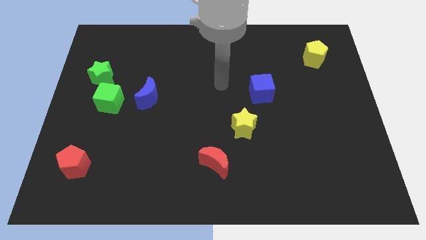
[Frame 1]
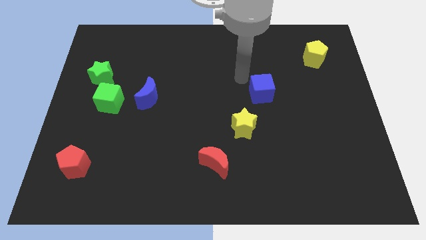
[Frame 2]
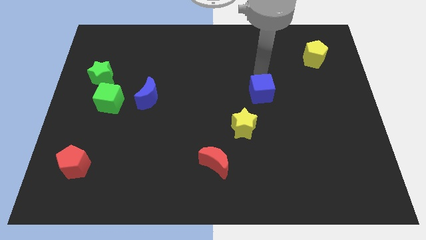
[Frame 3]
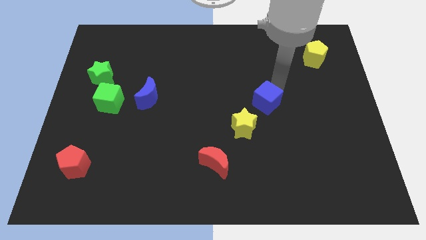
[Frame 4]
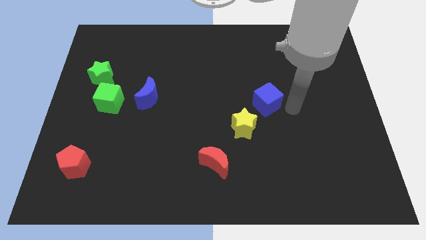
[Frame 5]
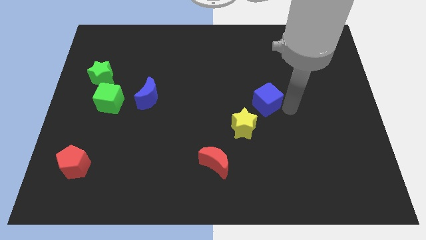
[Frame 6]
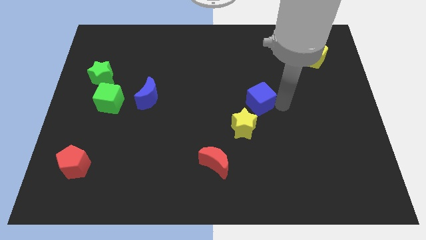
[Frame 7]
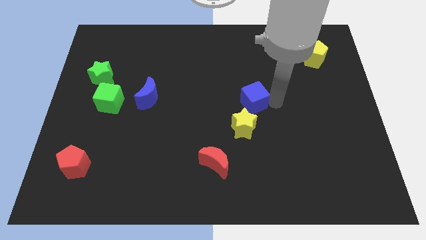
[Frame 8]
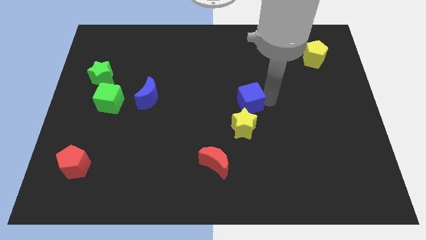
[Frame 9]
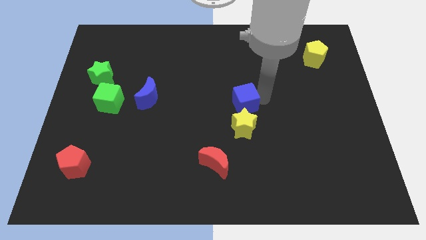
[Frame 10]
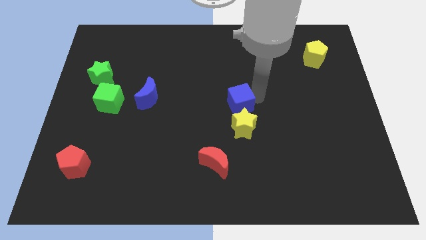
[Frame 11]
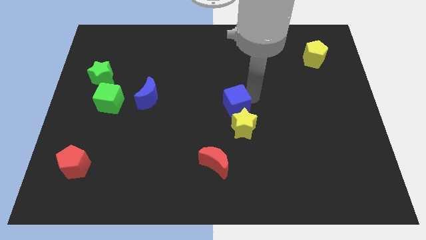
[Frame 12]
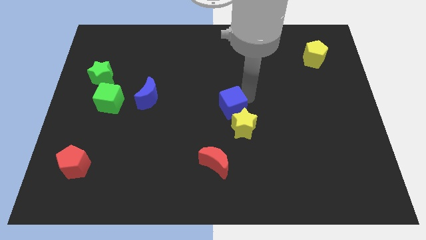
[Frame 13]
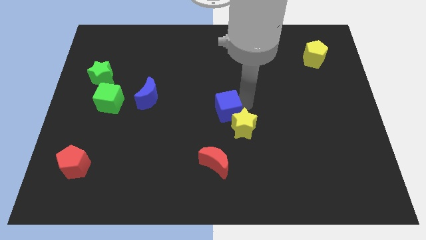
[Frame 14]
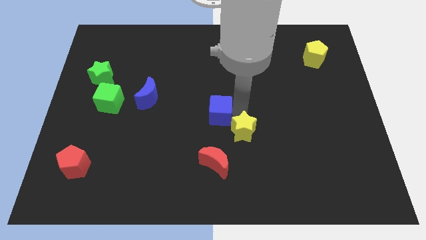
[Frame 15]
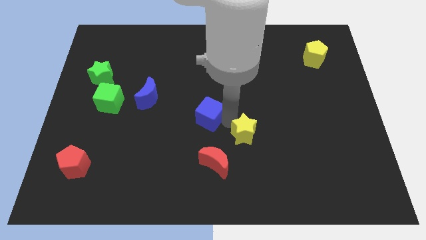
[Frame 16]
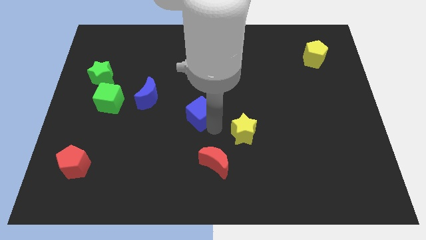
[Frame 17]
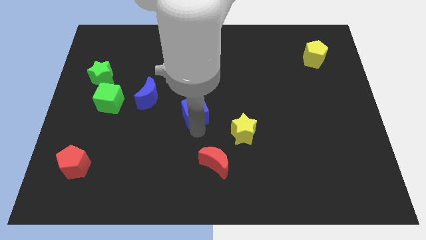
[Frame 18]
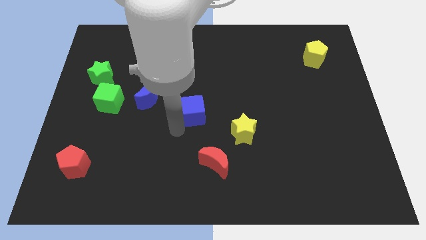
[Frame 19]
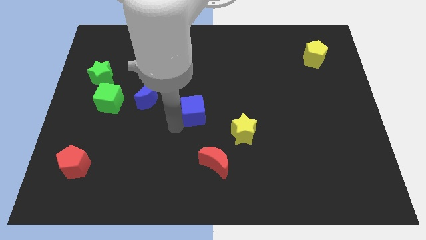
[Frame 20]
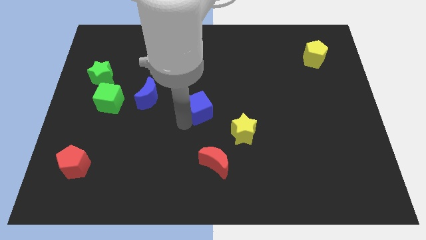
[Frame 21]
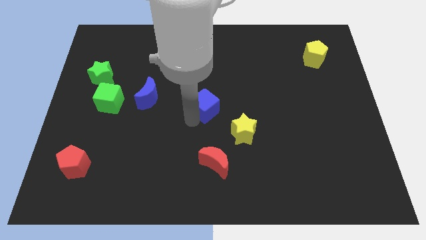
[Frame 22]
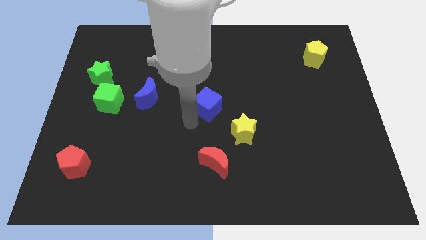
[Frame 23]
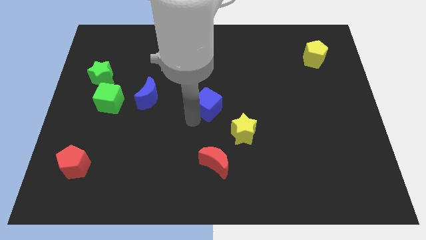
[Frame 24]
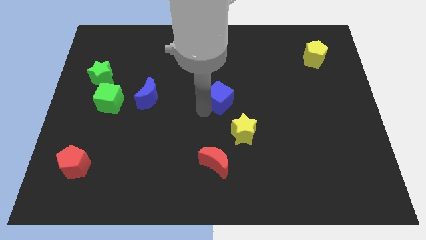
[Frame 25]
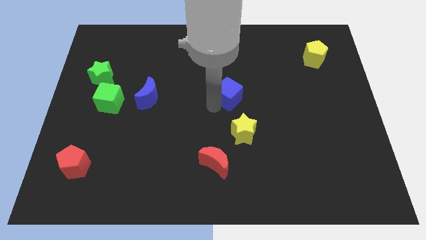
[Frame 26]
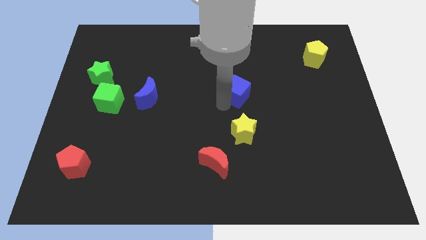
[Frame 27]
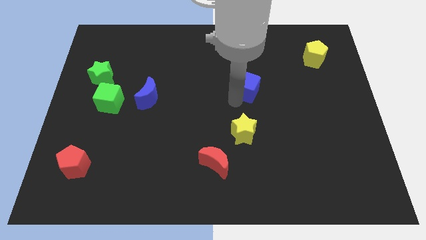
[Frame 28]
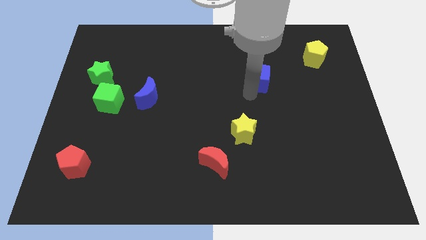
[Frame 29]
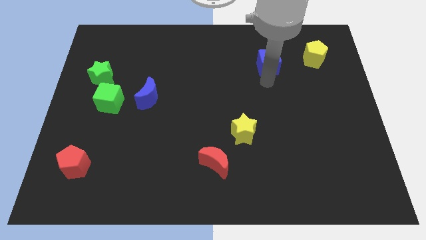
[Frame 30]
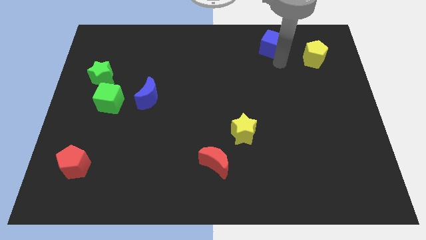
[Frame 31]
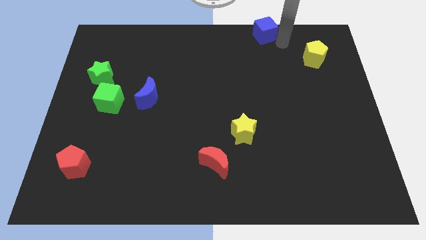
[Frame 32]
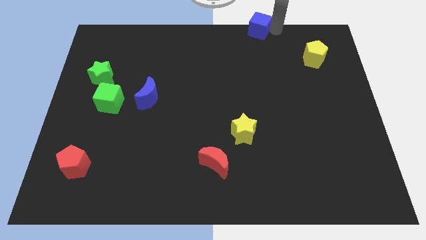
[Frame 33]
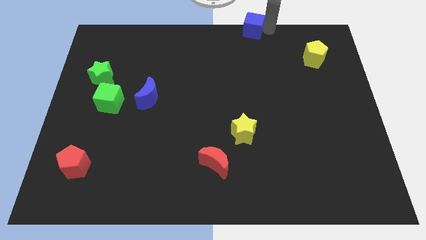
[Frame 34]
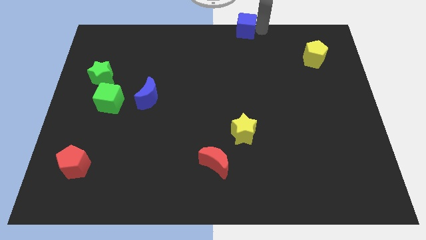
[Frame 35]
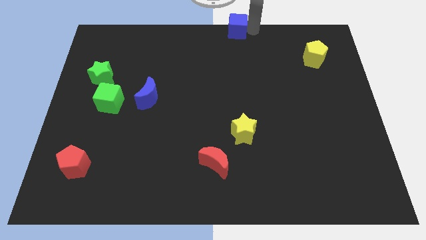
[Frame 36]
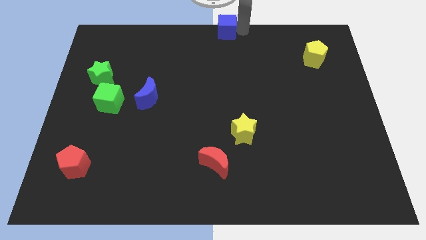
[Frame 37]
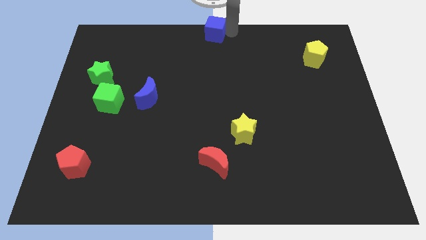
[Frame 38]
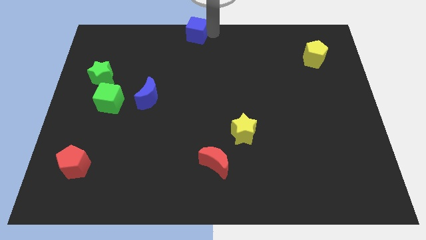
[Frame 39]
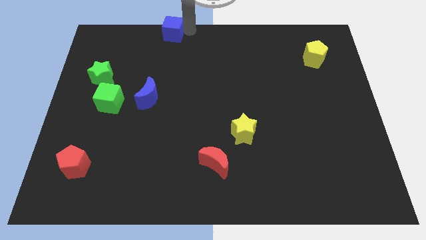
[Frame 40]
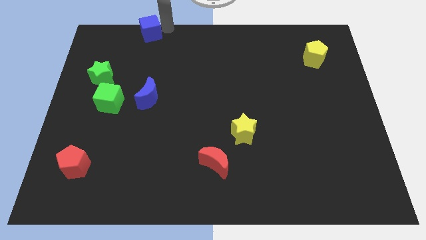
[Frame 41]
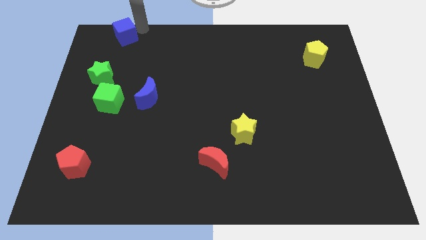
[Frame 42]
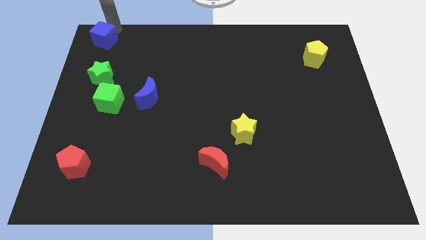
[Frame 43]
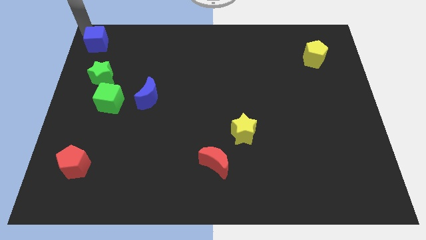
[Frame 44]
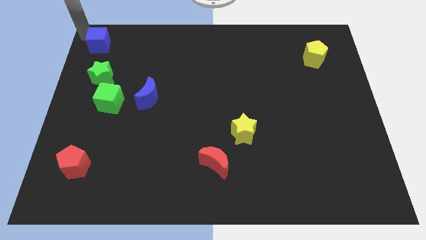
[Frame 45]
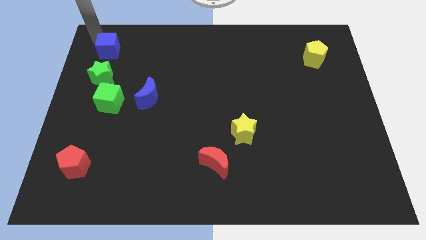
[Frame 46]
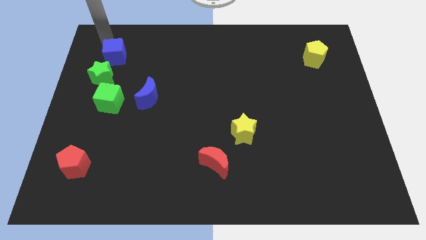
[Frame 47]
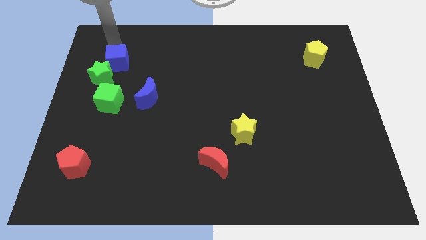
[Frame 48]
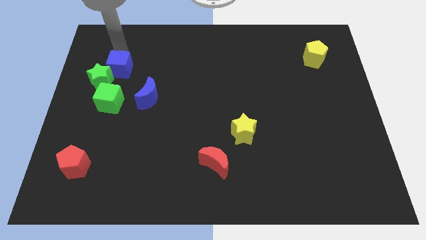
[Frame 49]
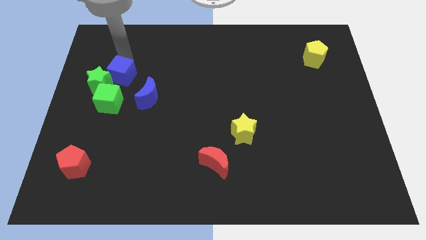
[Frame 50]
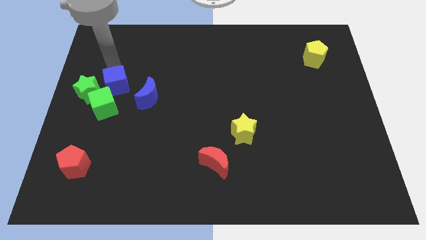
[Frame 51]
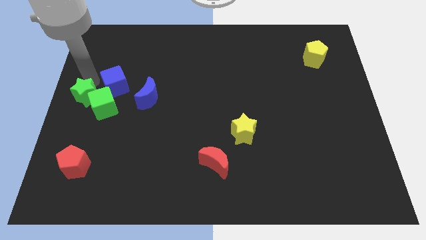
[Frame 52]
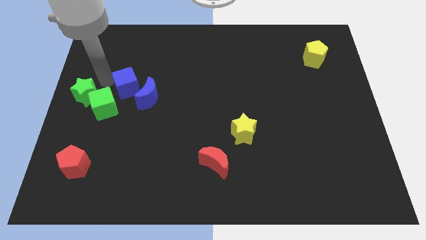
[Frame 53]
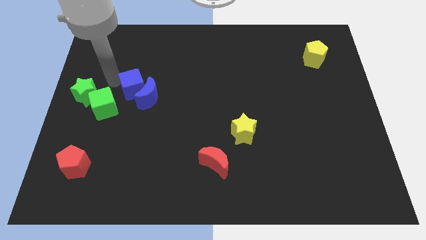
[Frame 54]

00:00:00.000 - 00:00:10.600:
put the blue cube to the blue moon

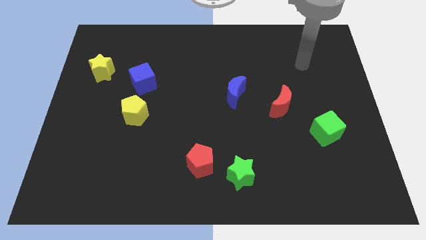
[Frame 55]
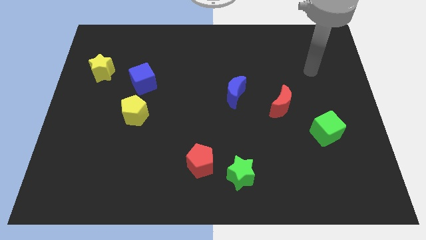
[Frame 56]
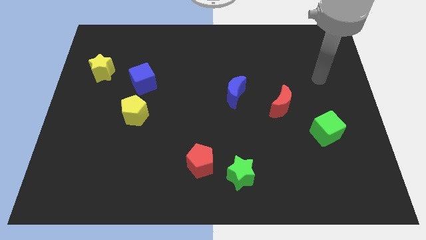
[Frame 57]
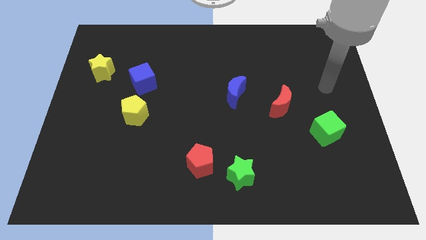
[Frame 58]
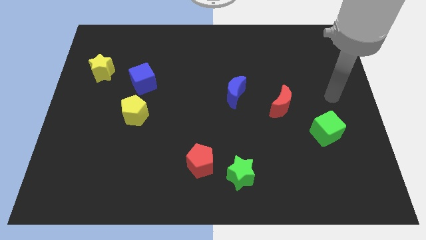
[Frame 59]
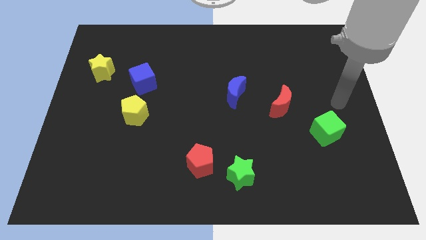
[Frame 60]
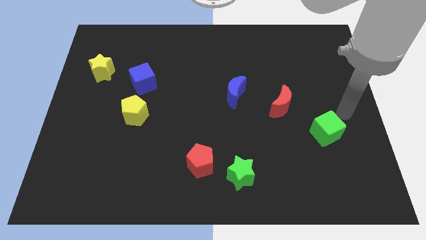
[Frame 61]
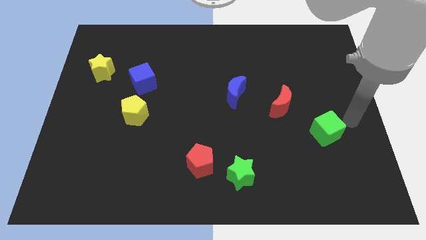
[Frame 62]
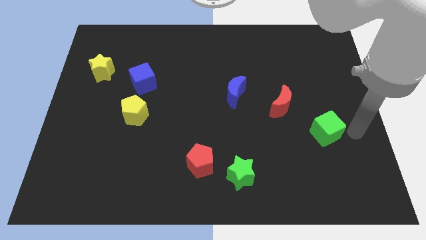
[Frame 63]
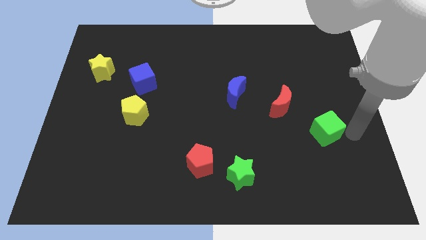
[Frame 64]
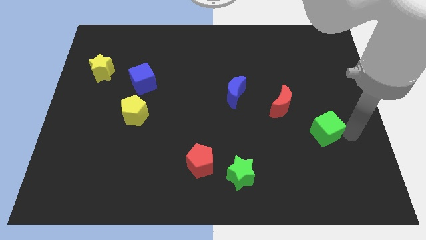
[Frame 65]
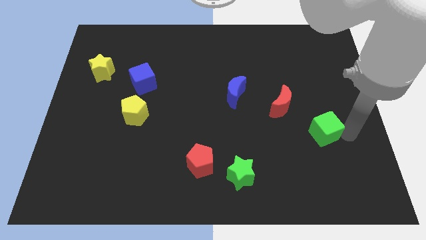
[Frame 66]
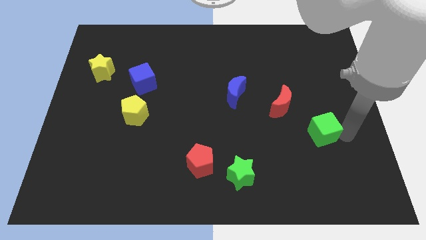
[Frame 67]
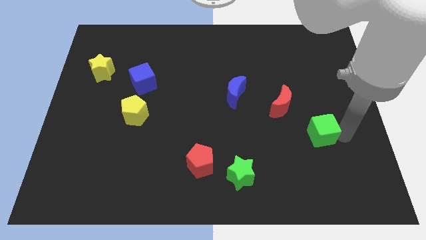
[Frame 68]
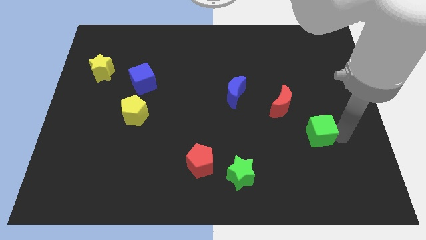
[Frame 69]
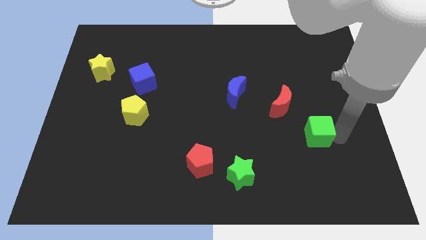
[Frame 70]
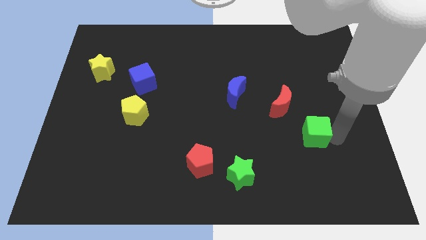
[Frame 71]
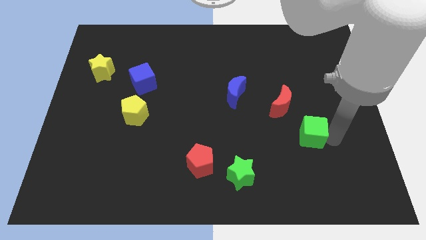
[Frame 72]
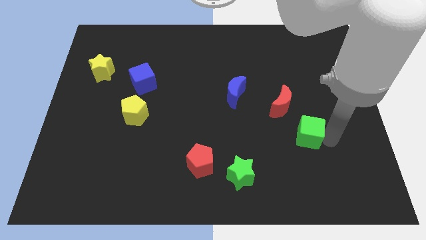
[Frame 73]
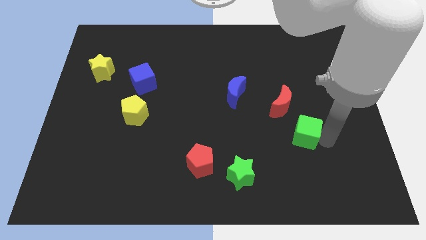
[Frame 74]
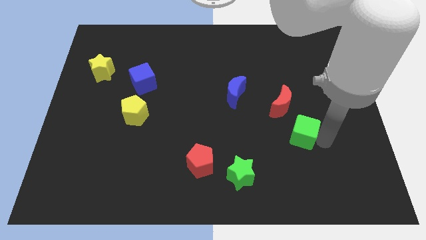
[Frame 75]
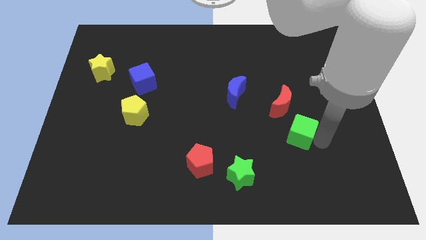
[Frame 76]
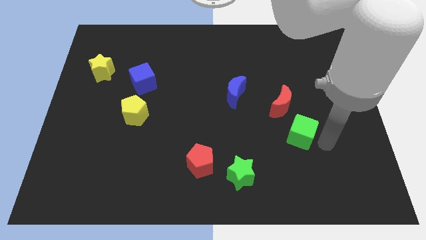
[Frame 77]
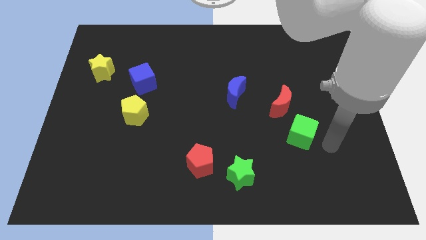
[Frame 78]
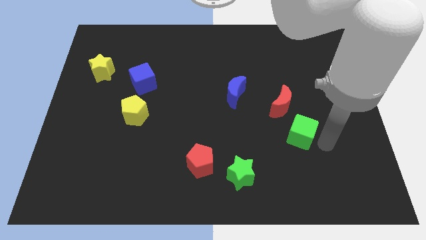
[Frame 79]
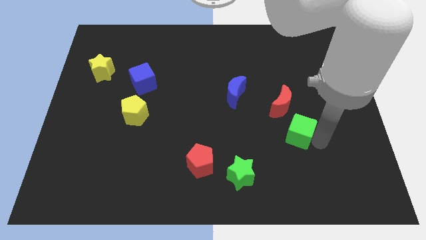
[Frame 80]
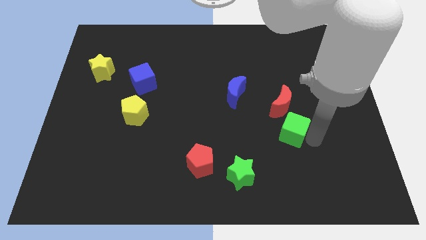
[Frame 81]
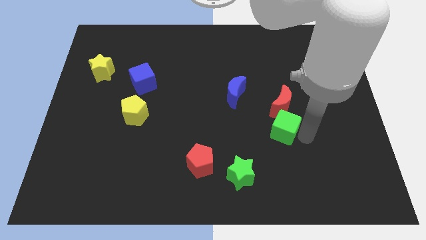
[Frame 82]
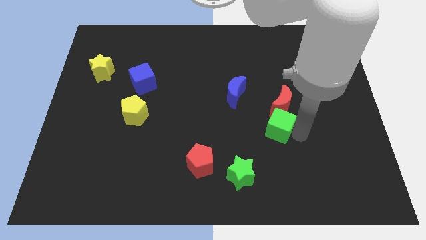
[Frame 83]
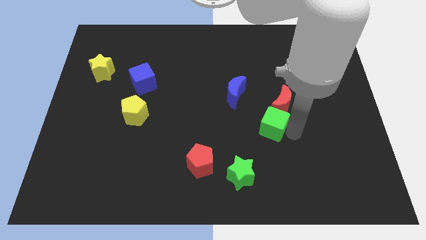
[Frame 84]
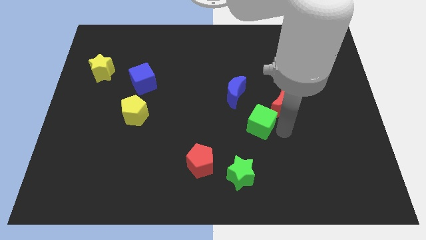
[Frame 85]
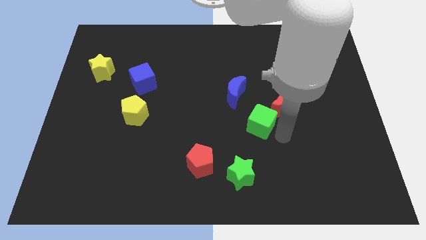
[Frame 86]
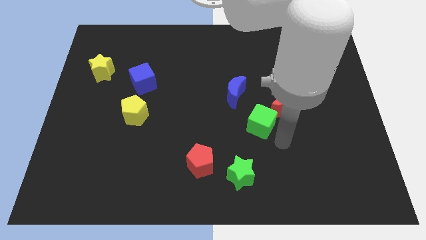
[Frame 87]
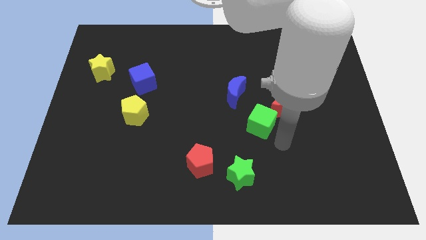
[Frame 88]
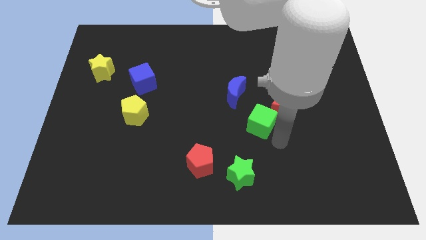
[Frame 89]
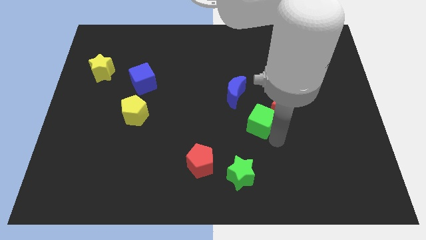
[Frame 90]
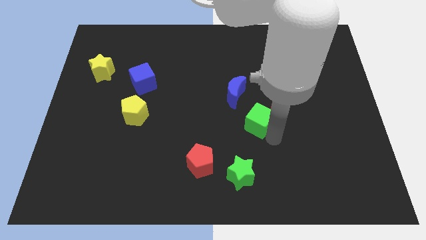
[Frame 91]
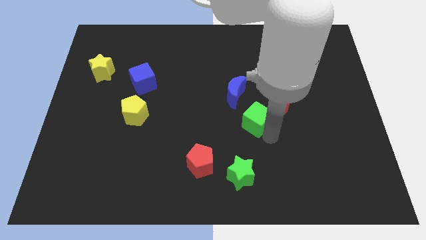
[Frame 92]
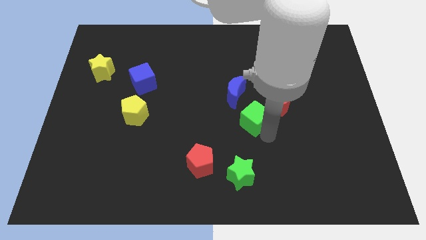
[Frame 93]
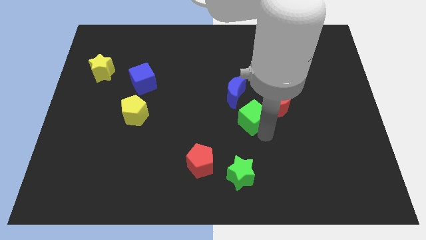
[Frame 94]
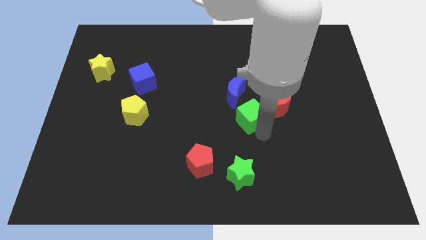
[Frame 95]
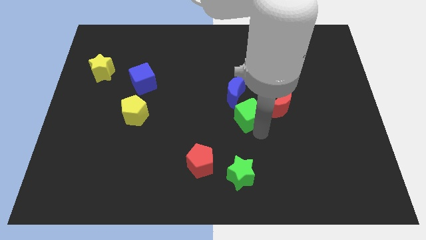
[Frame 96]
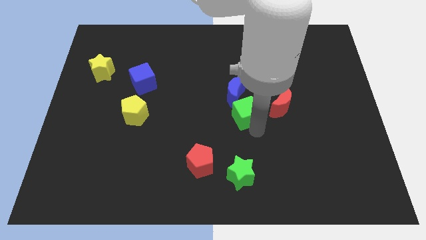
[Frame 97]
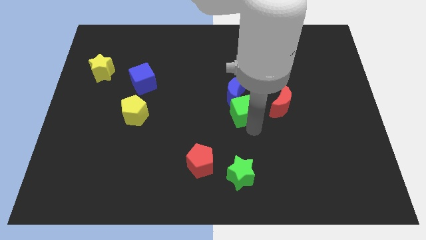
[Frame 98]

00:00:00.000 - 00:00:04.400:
put the green cube close to the blue moon
